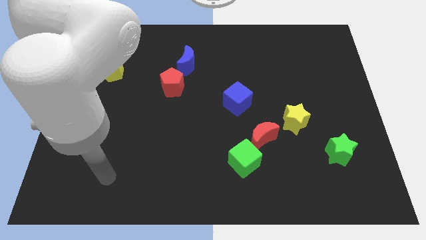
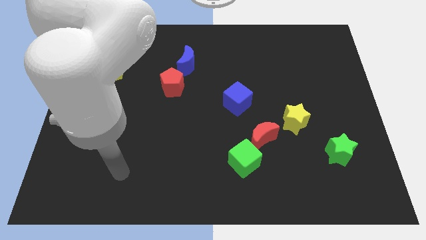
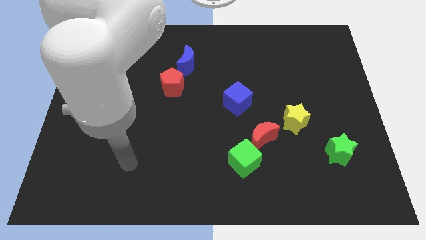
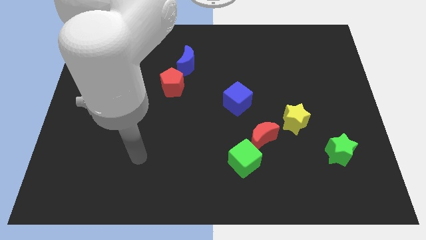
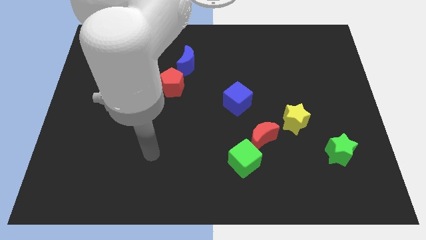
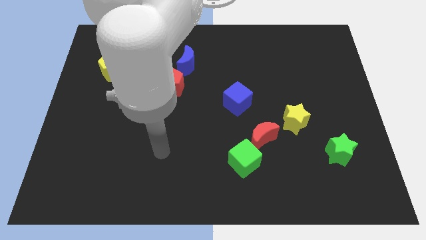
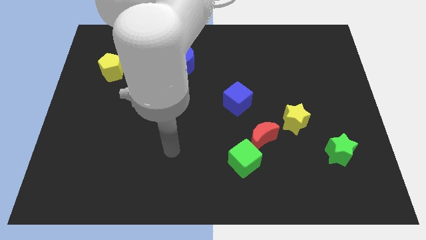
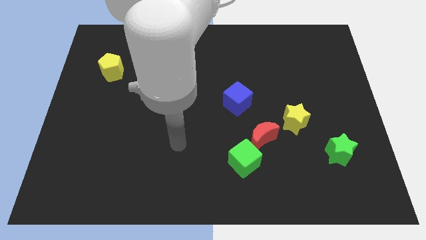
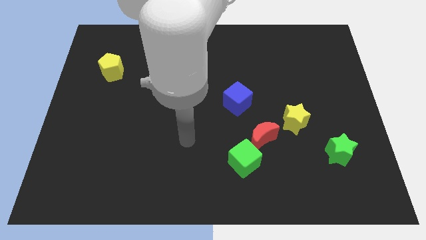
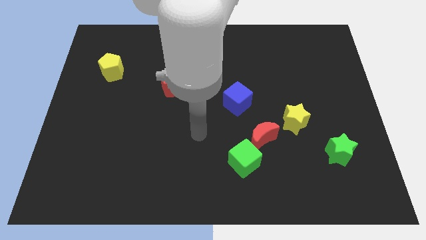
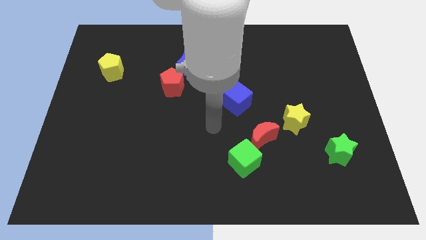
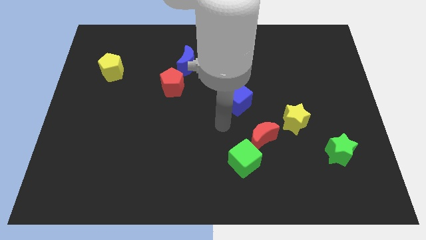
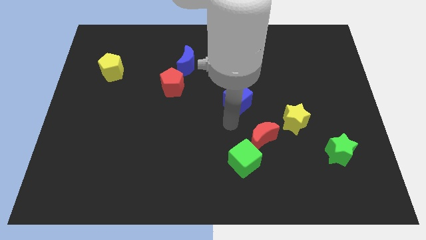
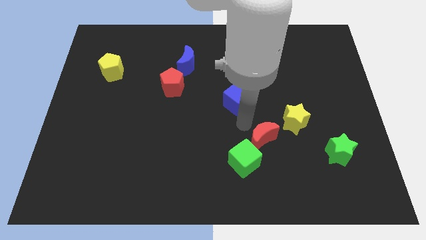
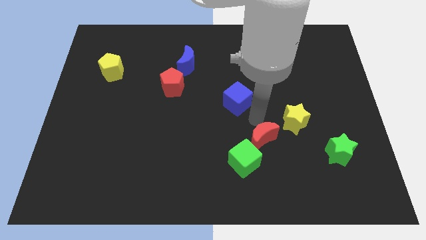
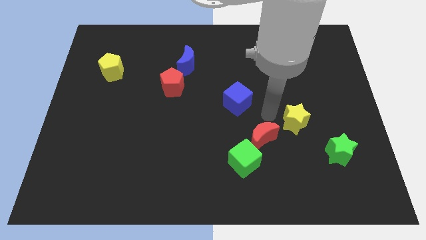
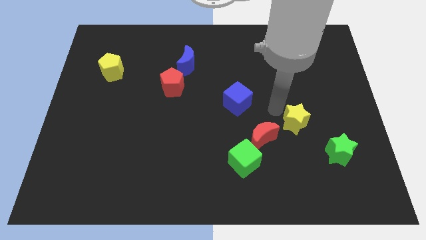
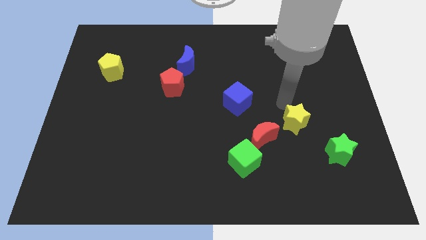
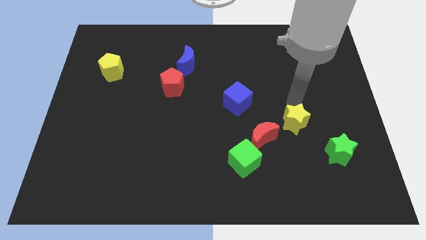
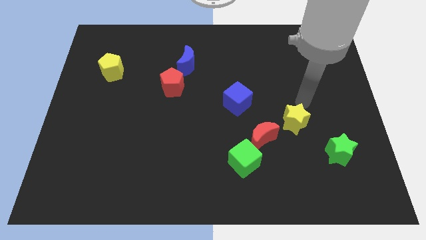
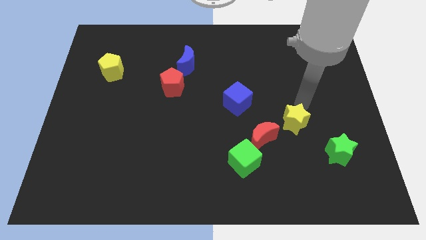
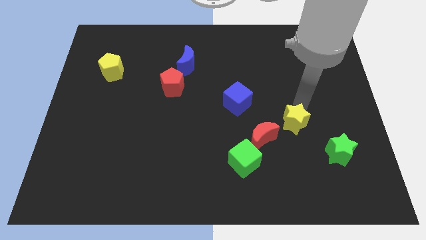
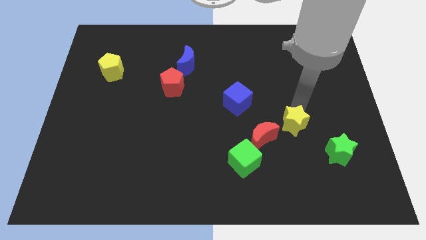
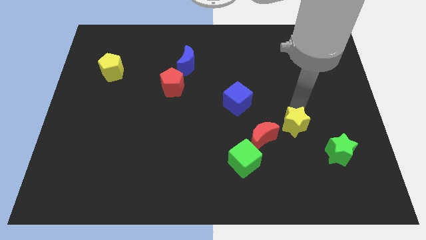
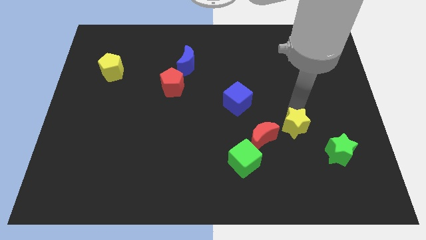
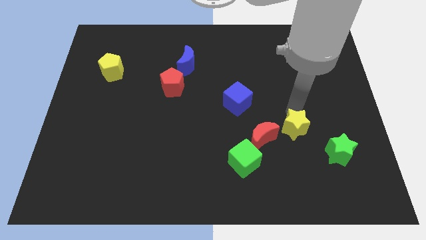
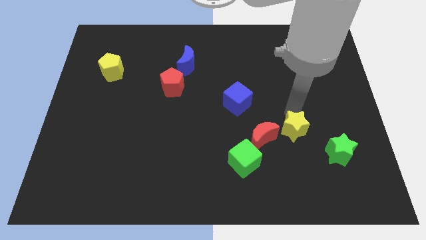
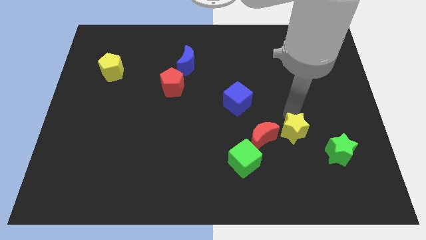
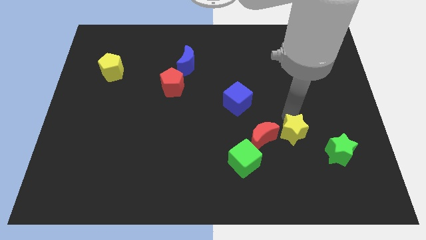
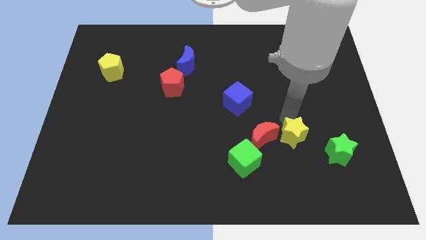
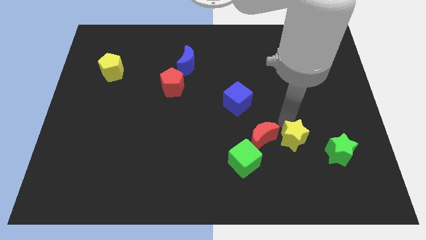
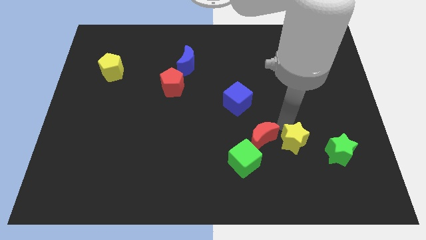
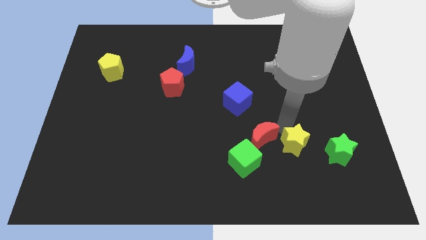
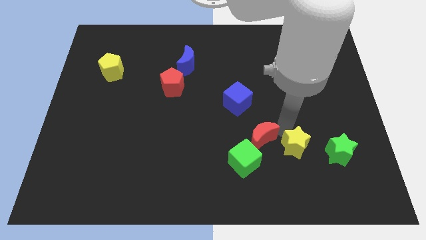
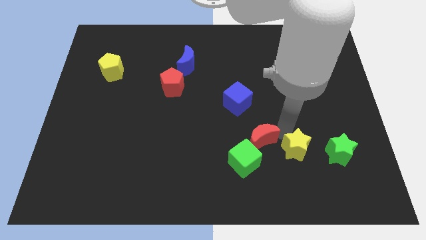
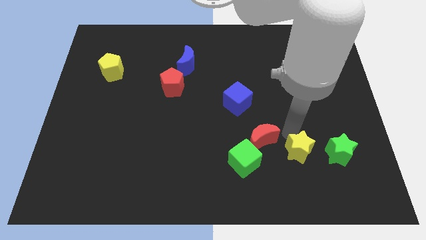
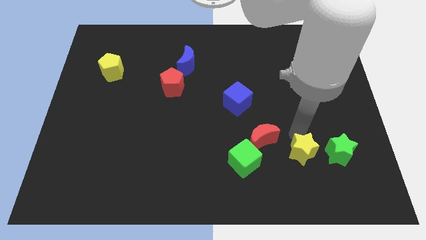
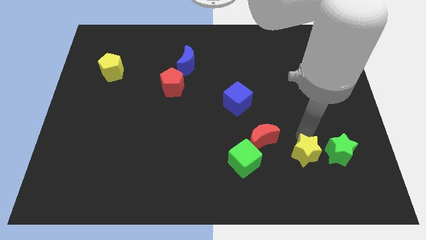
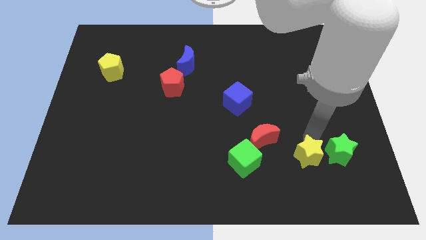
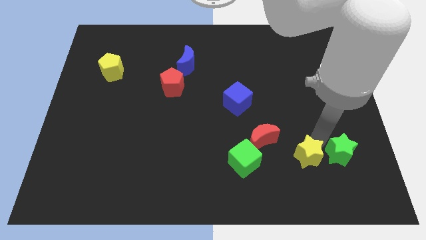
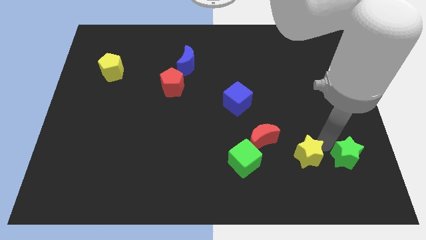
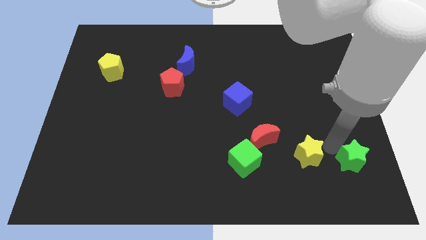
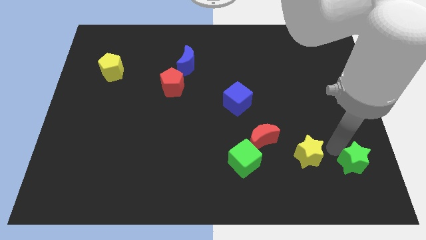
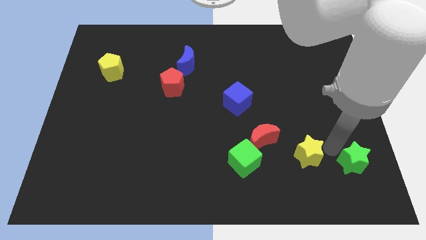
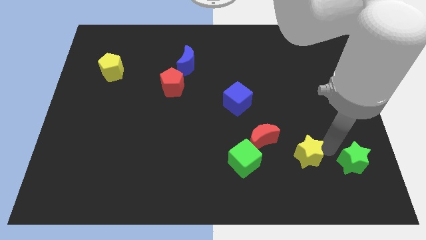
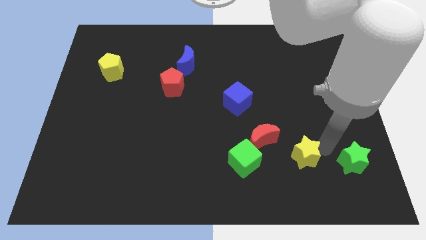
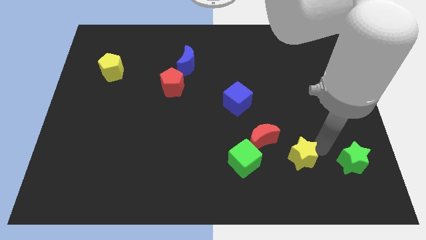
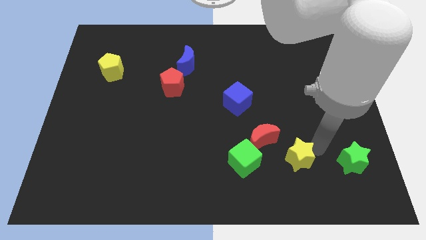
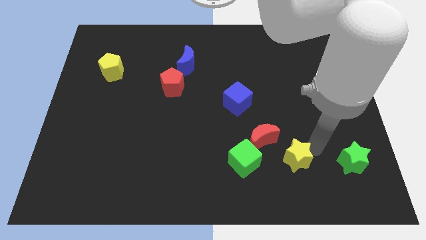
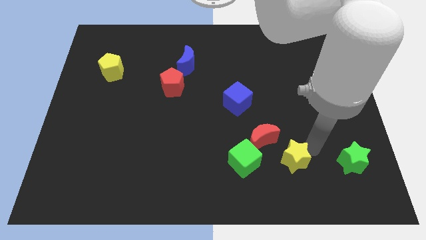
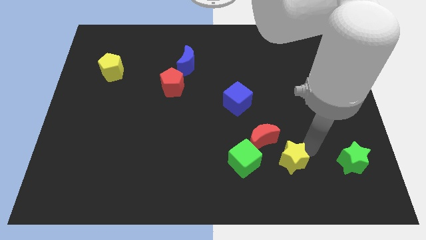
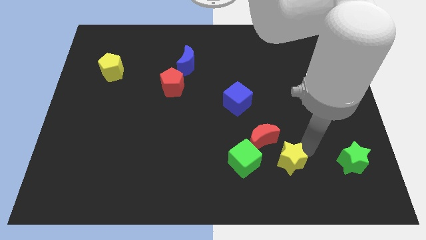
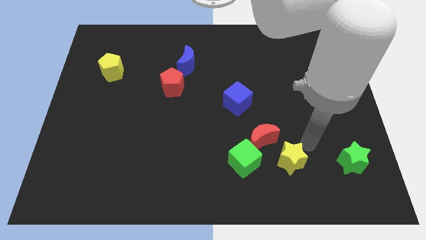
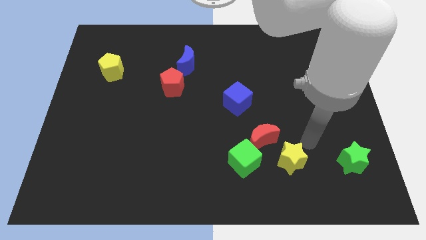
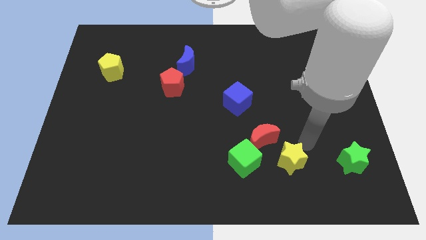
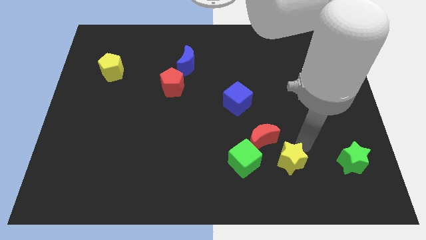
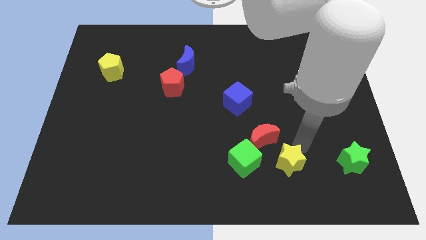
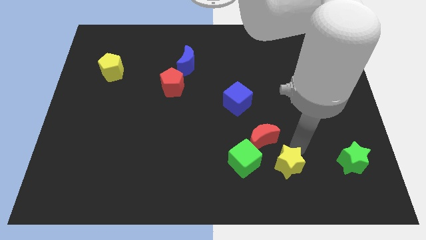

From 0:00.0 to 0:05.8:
move the yellow star below the red moon

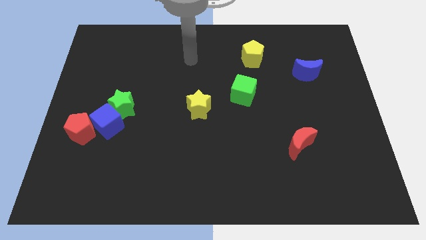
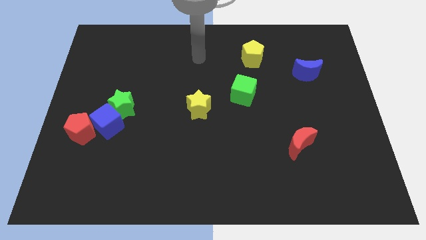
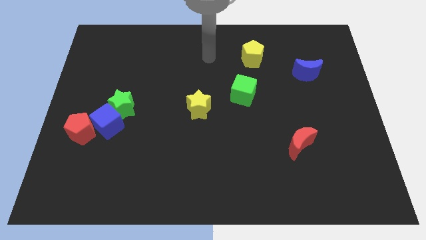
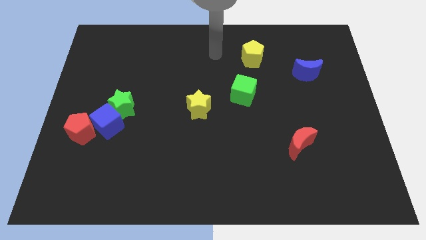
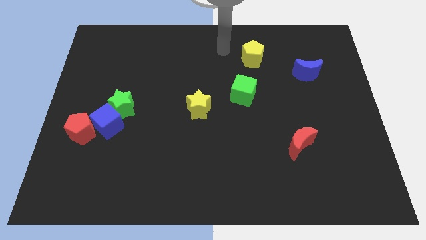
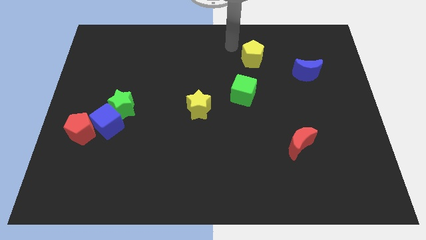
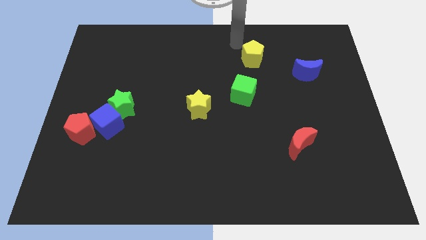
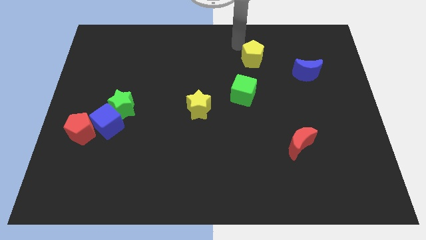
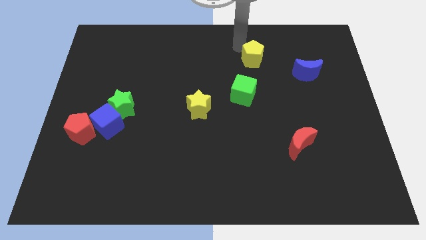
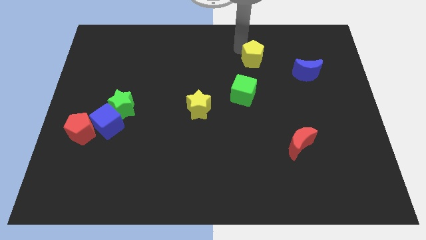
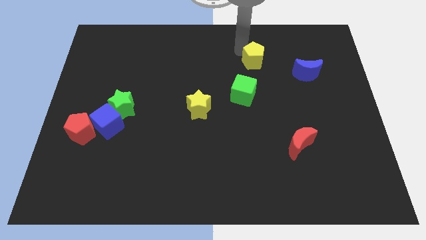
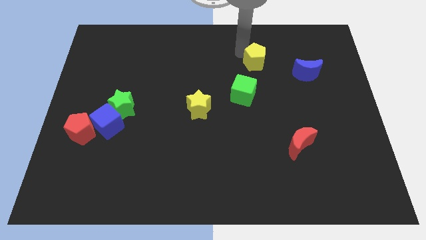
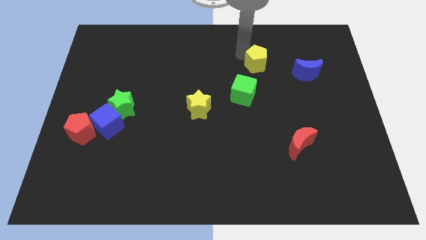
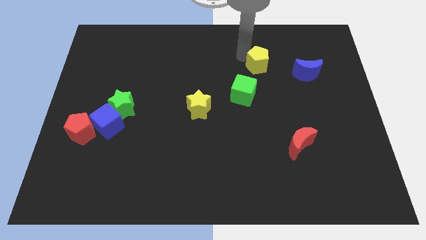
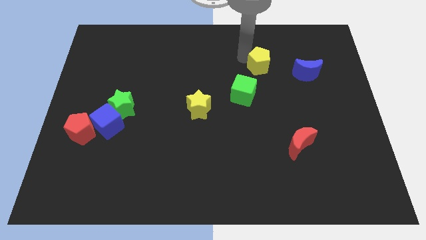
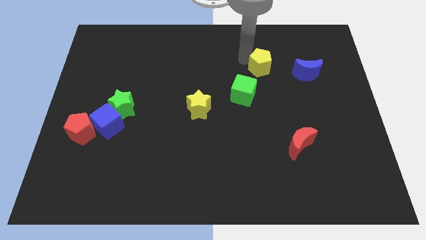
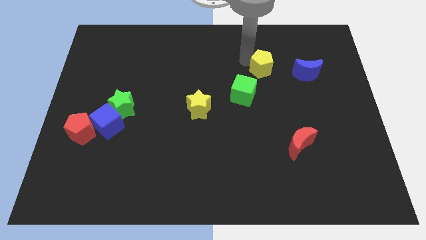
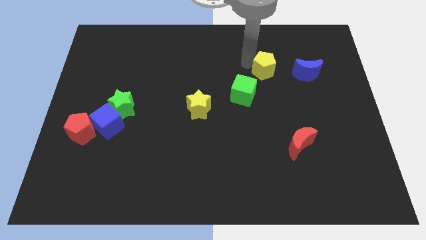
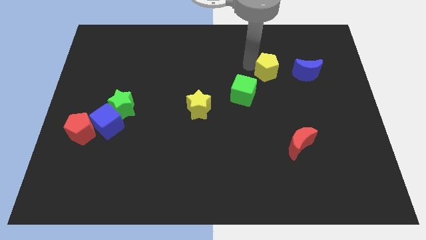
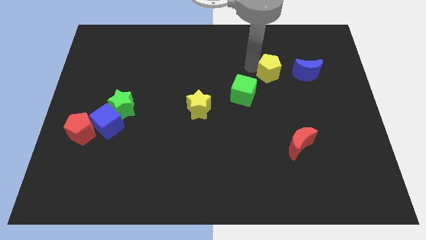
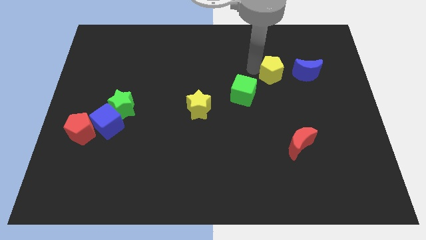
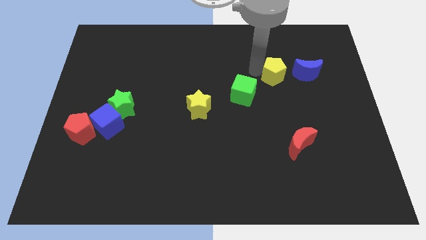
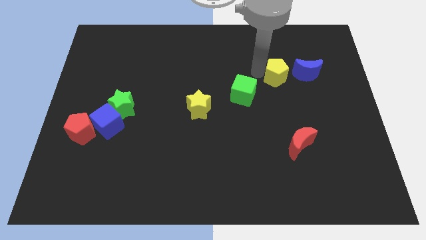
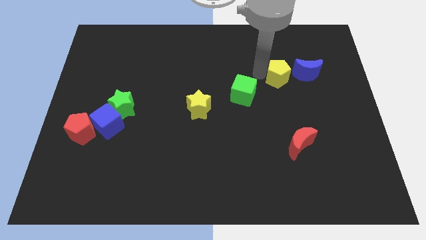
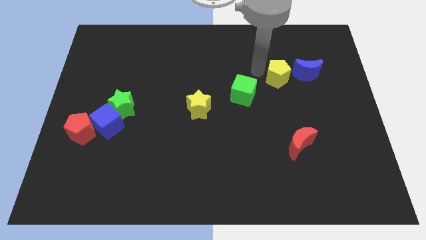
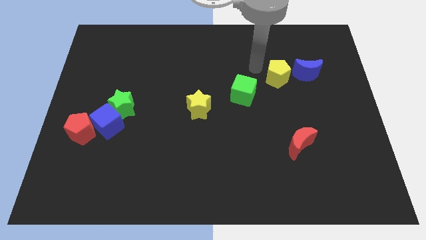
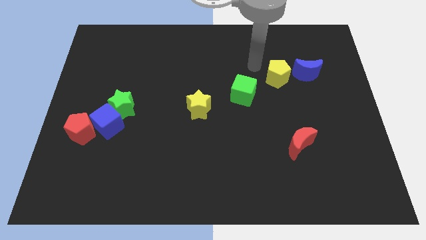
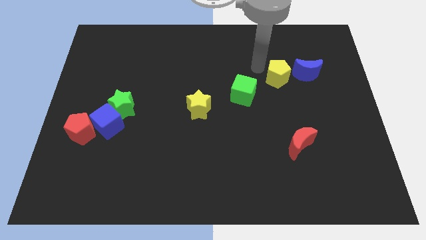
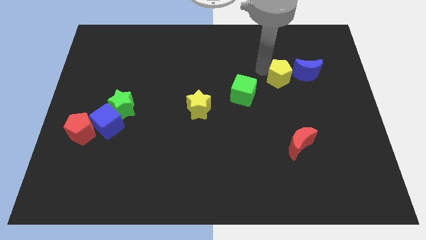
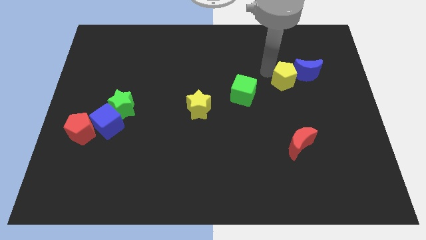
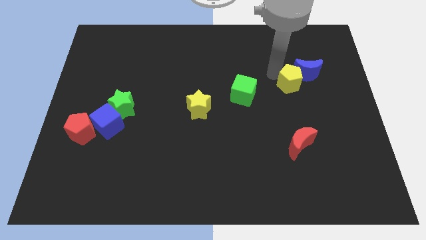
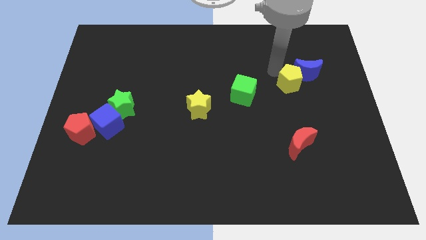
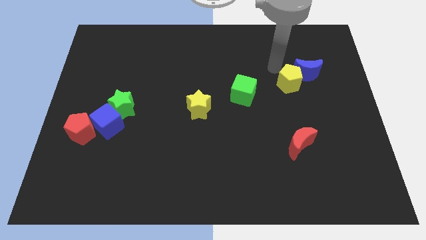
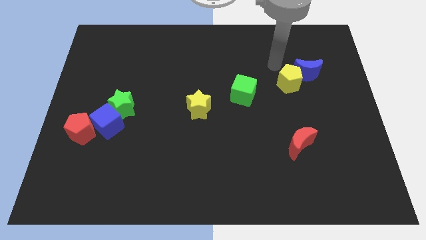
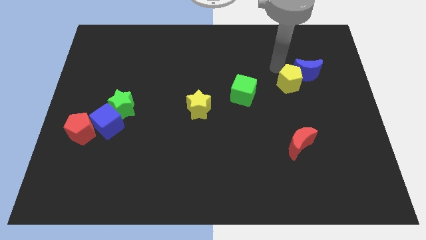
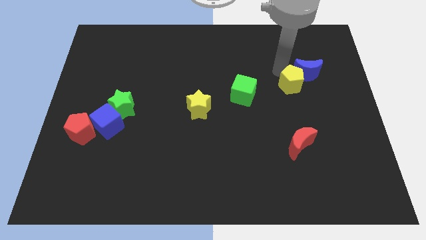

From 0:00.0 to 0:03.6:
push the yellow pentagon to the bottom side of the blue moon
